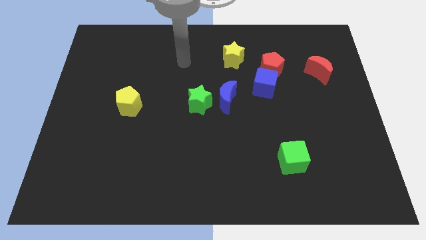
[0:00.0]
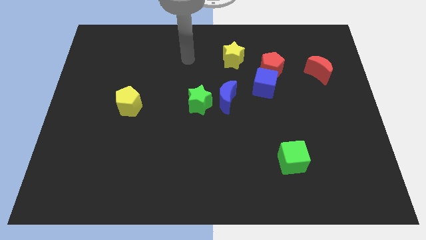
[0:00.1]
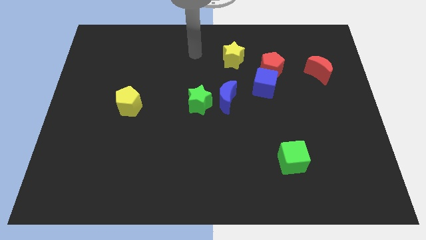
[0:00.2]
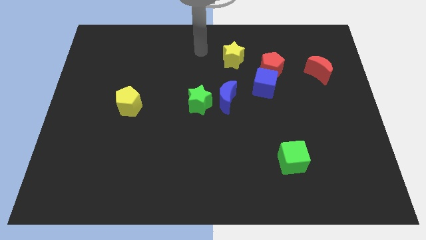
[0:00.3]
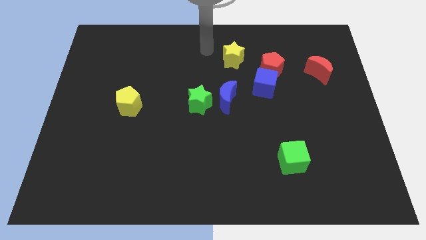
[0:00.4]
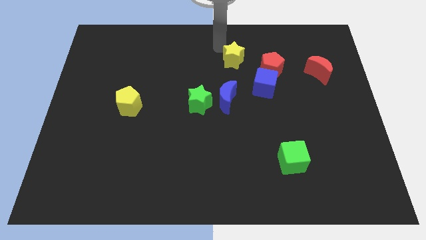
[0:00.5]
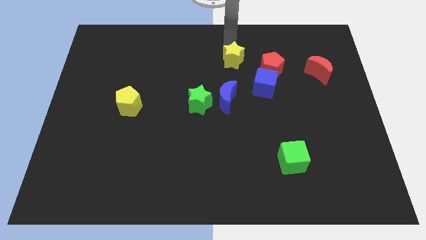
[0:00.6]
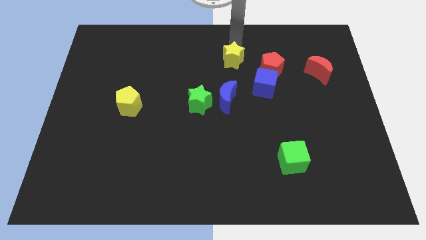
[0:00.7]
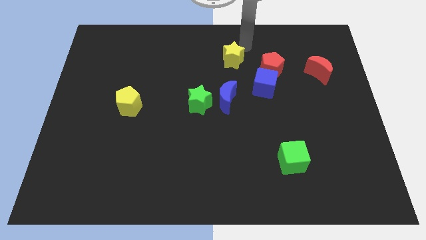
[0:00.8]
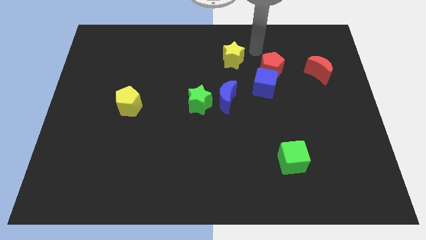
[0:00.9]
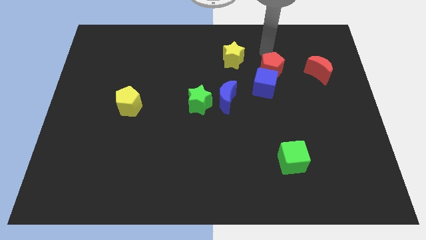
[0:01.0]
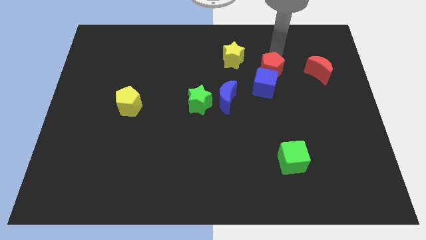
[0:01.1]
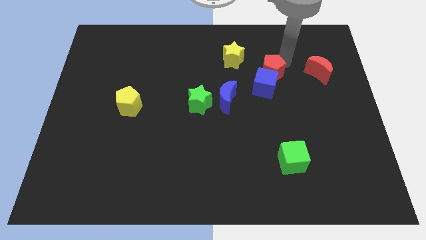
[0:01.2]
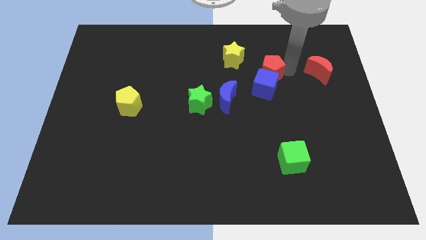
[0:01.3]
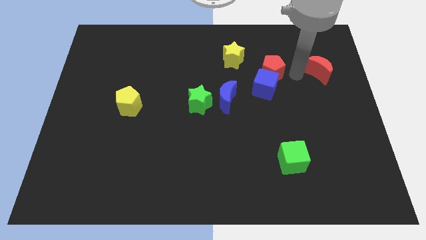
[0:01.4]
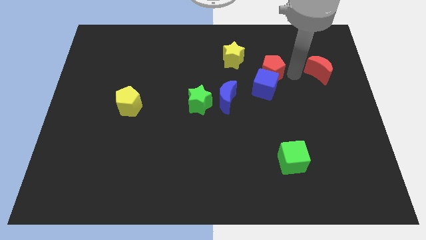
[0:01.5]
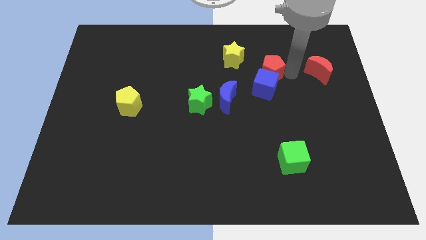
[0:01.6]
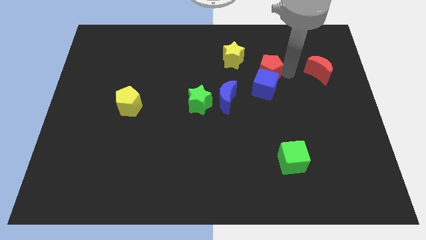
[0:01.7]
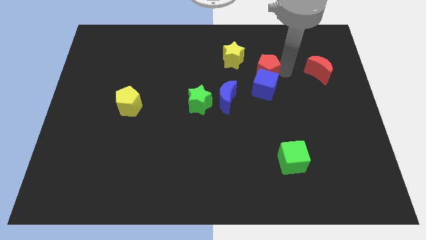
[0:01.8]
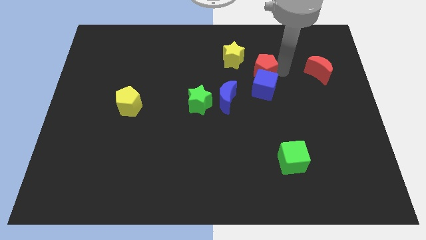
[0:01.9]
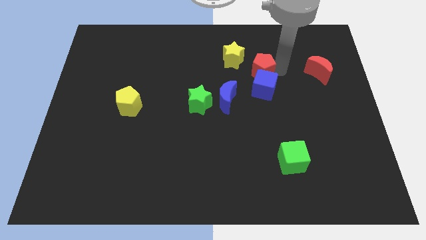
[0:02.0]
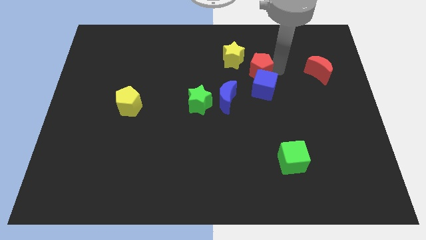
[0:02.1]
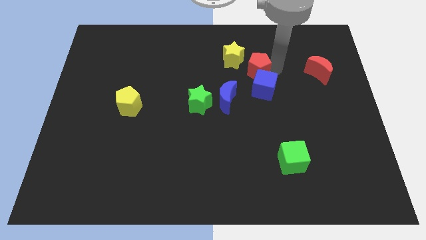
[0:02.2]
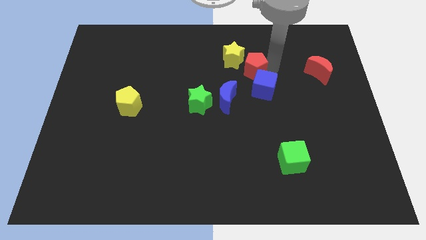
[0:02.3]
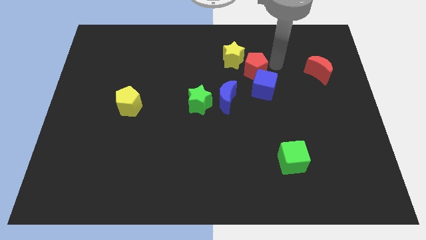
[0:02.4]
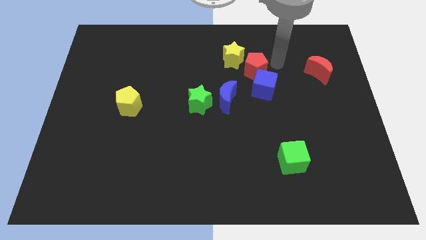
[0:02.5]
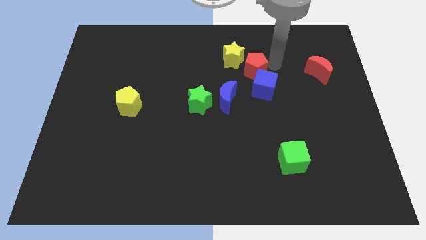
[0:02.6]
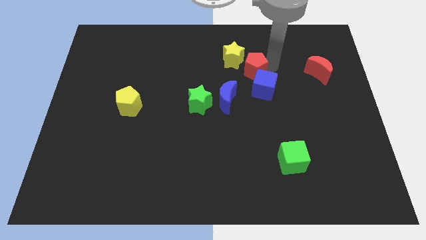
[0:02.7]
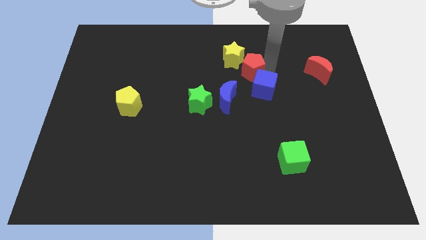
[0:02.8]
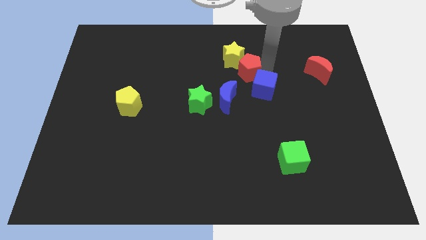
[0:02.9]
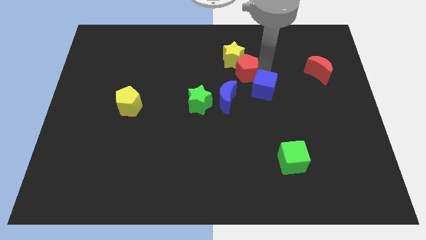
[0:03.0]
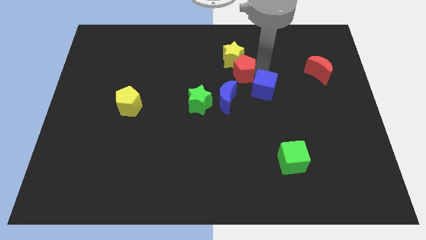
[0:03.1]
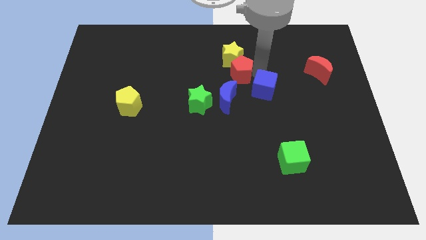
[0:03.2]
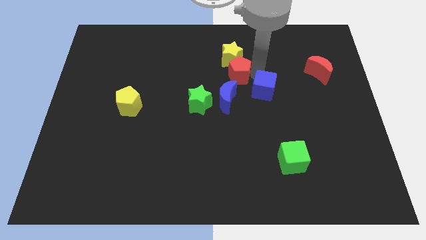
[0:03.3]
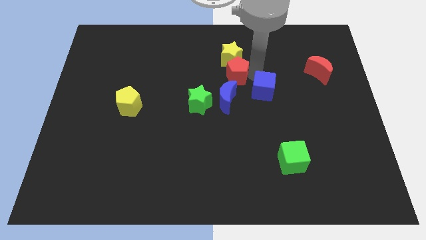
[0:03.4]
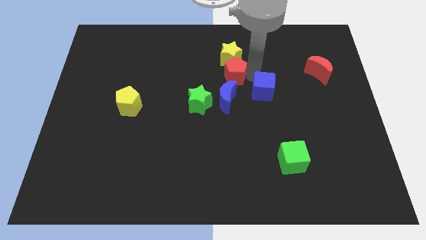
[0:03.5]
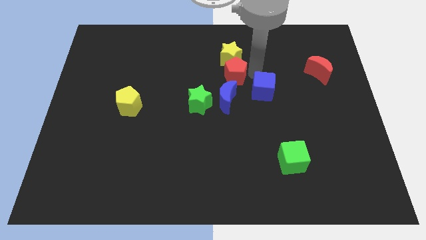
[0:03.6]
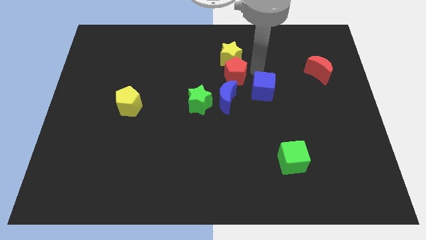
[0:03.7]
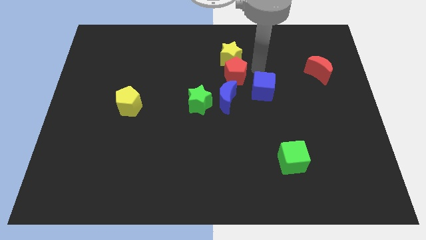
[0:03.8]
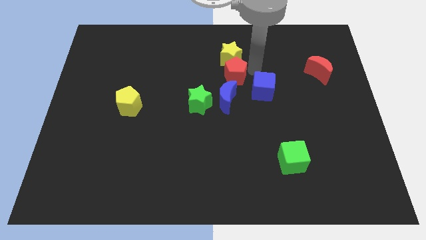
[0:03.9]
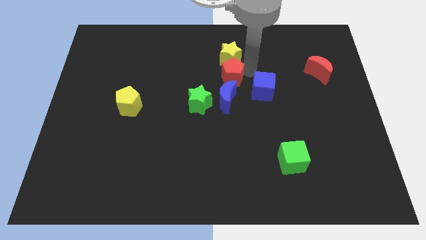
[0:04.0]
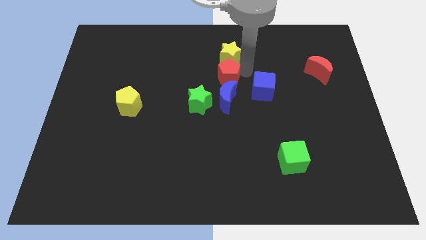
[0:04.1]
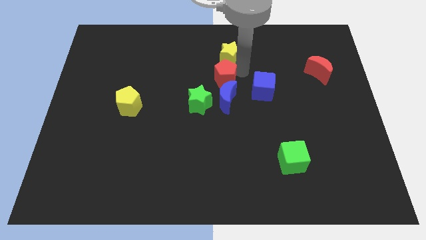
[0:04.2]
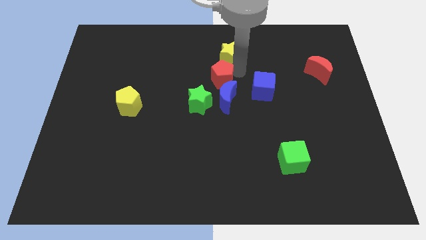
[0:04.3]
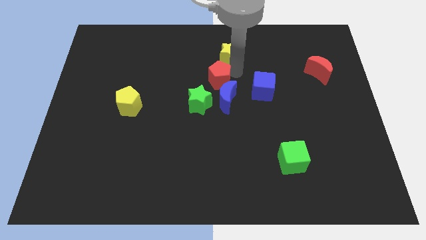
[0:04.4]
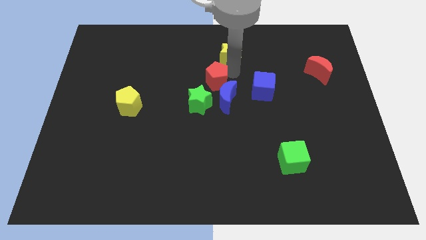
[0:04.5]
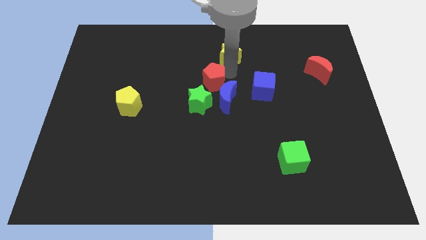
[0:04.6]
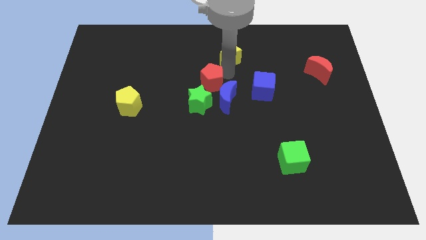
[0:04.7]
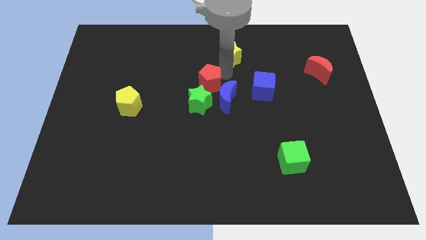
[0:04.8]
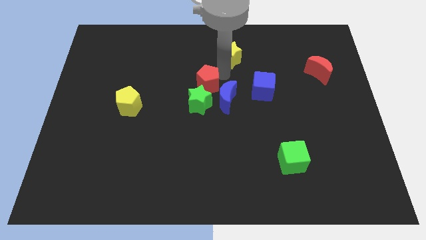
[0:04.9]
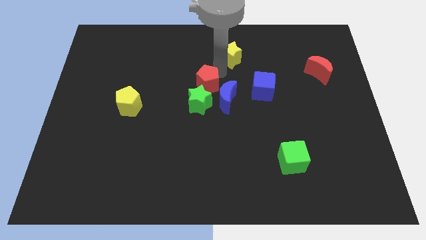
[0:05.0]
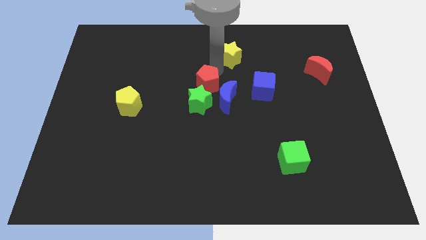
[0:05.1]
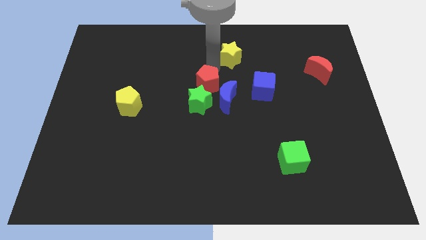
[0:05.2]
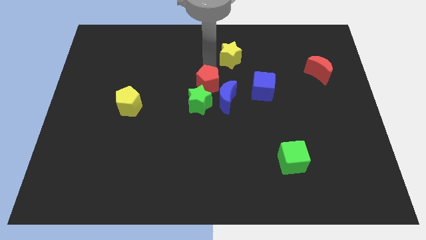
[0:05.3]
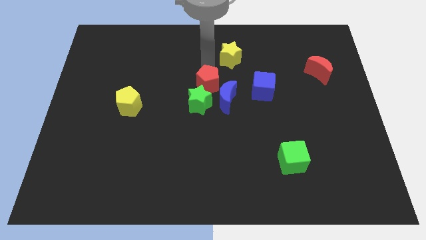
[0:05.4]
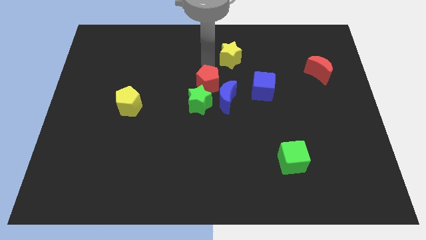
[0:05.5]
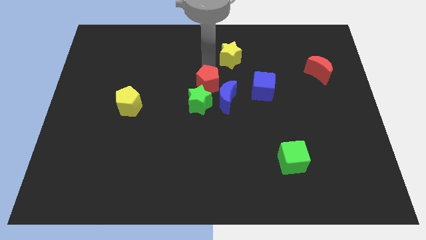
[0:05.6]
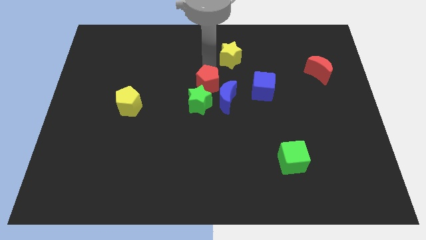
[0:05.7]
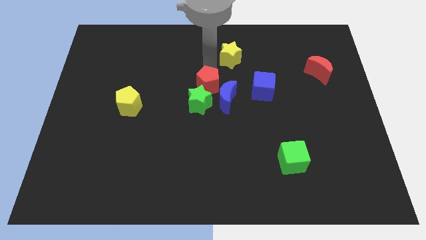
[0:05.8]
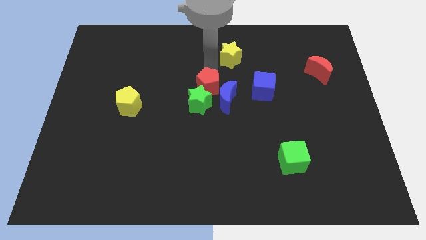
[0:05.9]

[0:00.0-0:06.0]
move the red pentagon to the green star
